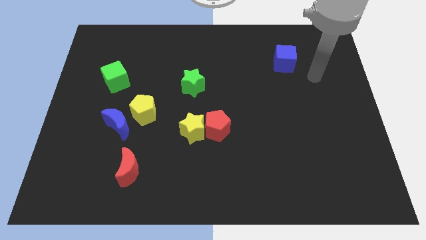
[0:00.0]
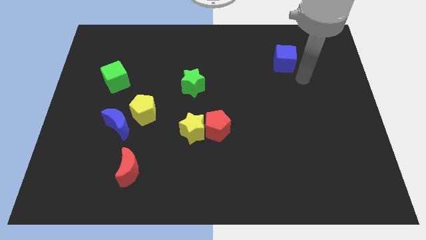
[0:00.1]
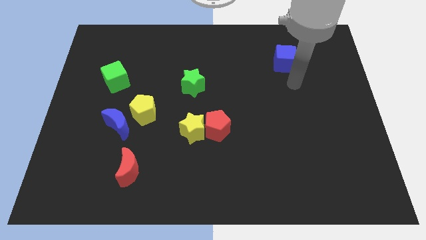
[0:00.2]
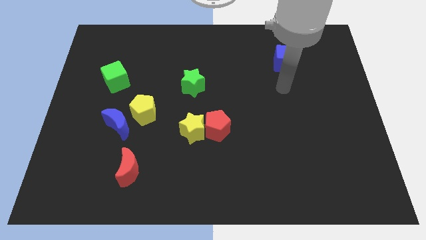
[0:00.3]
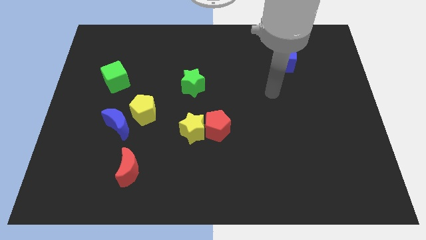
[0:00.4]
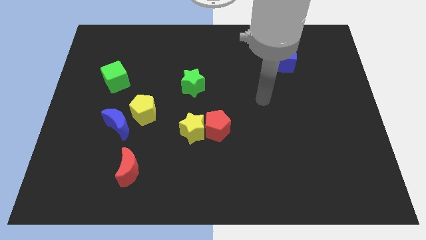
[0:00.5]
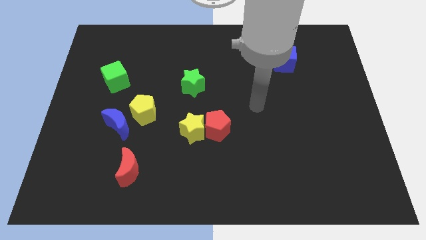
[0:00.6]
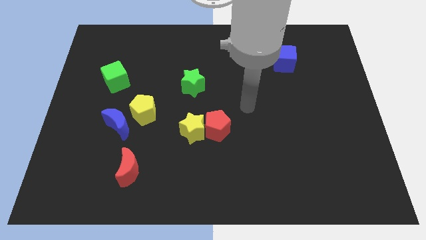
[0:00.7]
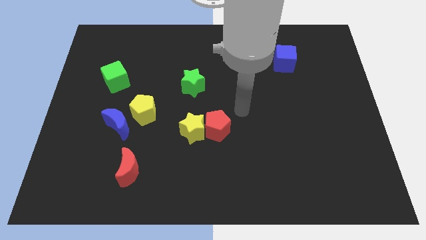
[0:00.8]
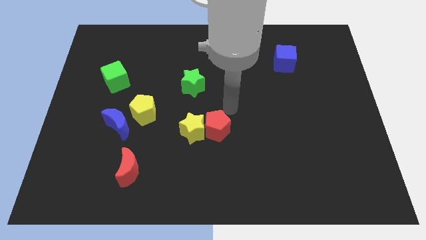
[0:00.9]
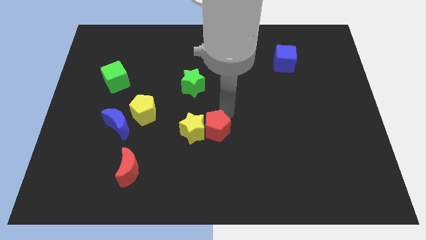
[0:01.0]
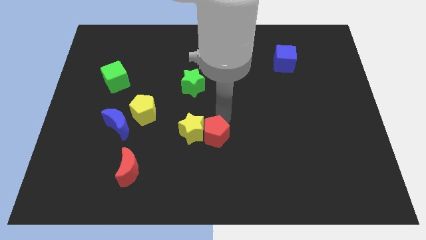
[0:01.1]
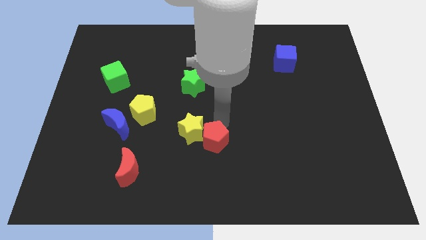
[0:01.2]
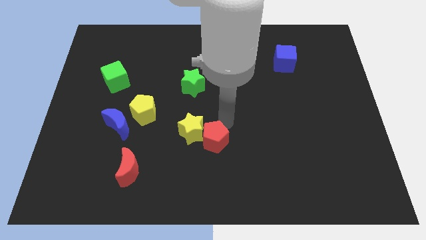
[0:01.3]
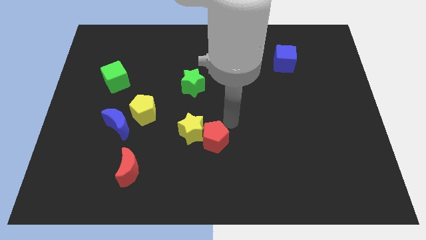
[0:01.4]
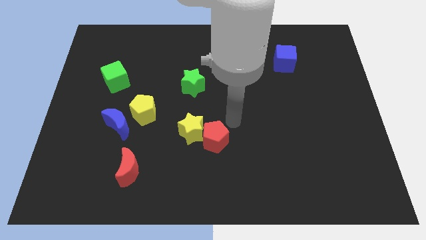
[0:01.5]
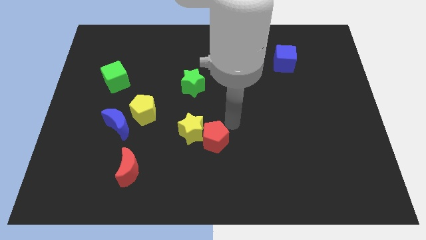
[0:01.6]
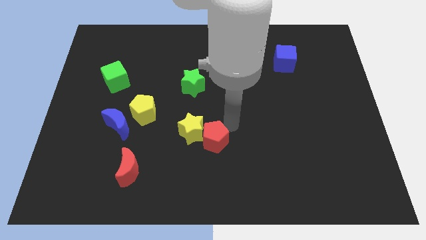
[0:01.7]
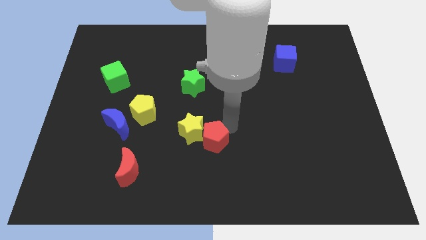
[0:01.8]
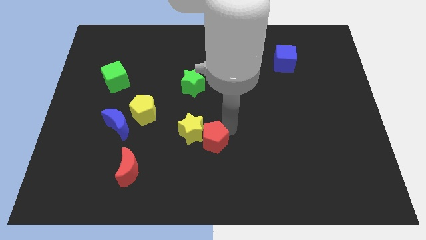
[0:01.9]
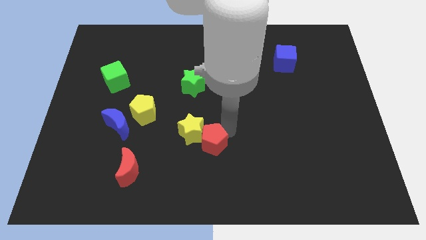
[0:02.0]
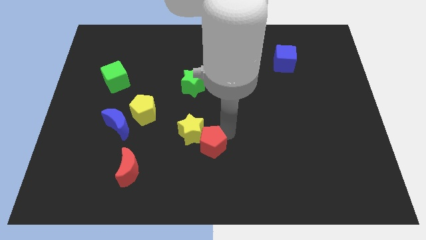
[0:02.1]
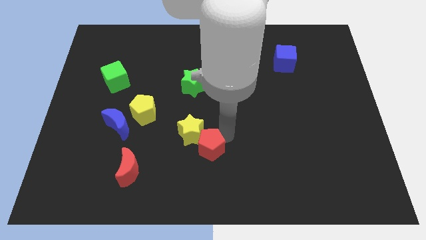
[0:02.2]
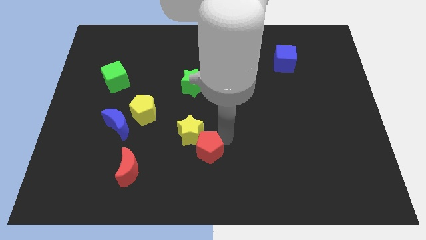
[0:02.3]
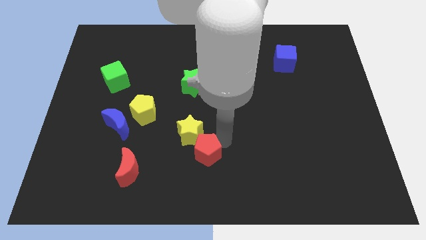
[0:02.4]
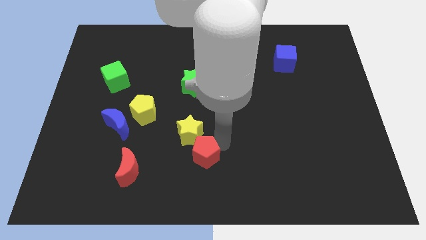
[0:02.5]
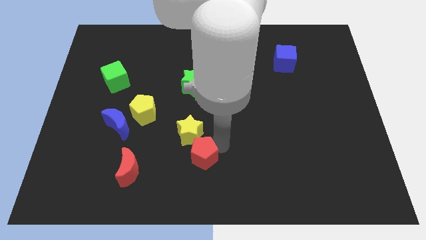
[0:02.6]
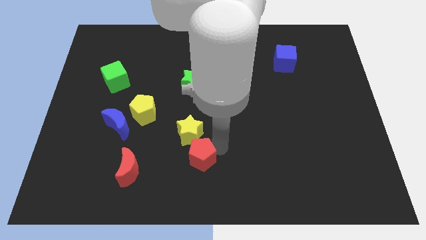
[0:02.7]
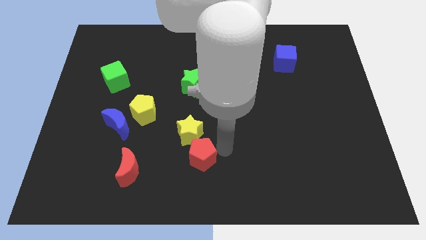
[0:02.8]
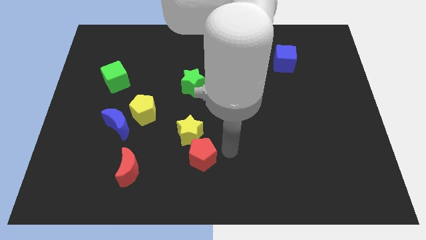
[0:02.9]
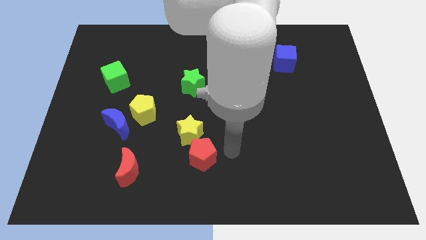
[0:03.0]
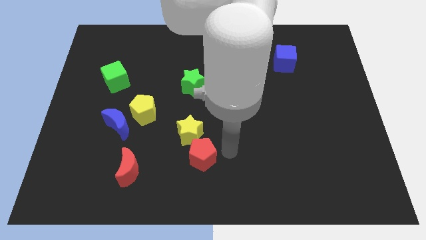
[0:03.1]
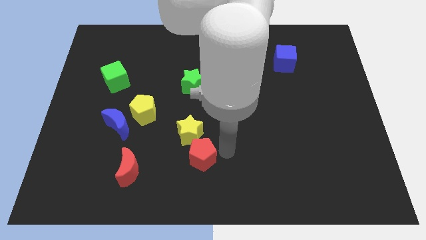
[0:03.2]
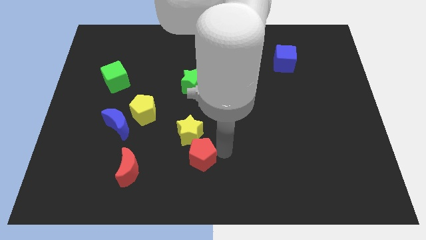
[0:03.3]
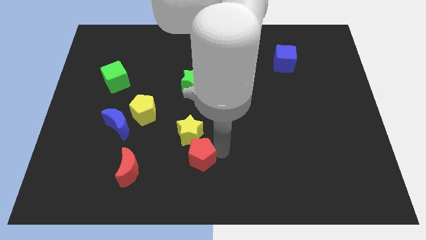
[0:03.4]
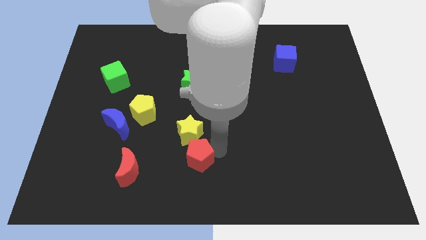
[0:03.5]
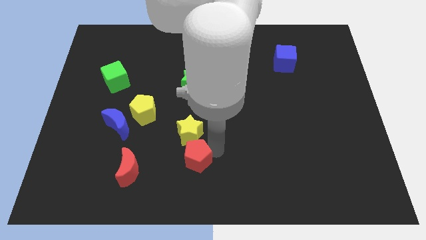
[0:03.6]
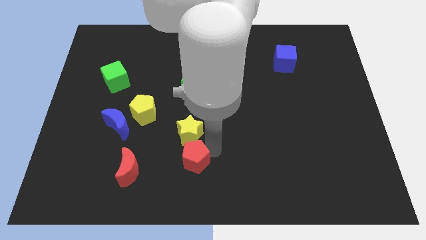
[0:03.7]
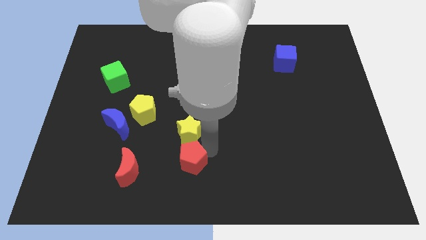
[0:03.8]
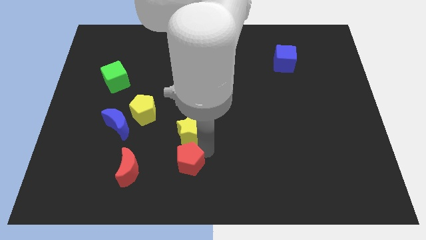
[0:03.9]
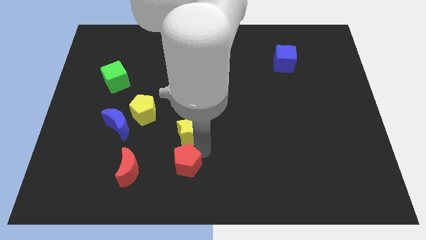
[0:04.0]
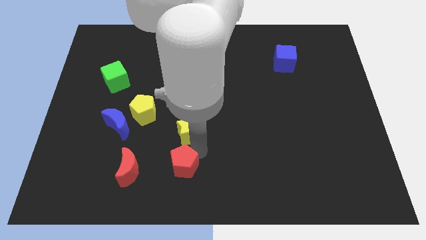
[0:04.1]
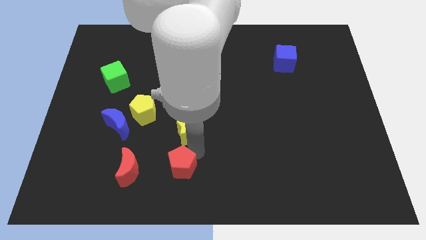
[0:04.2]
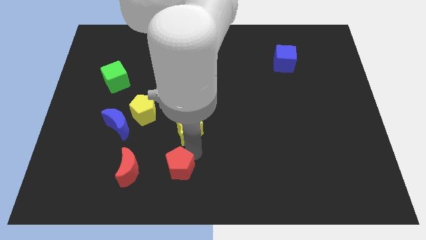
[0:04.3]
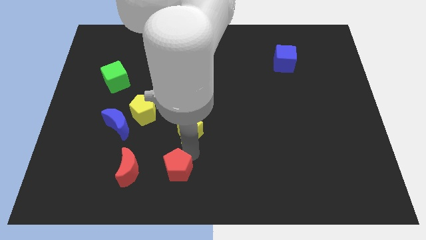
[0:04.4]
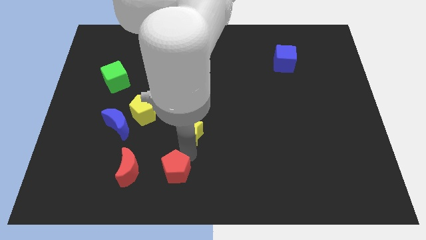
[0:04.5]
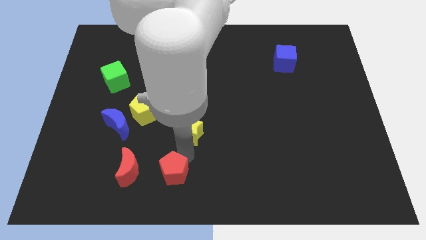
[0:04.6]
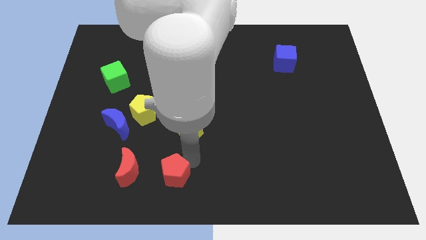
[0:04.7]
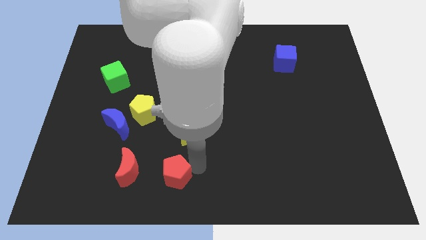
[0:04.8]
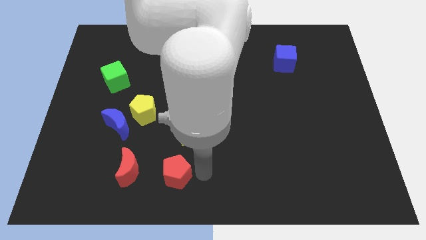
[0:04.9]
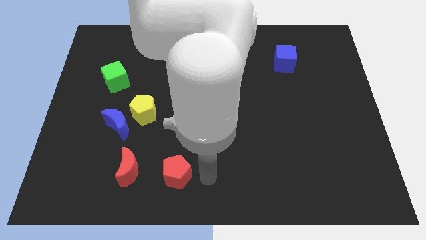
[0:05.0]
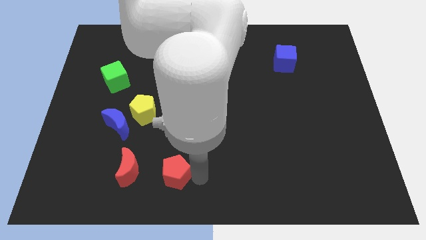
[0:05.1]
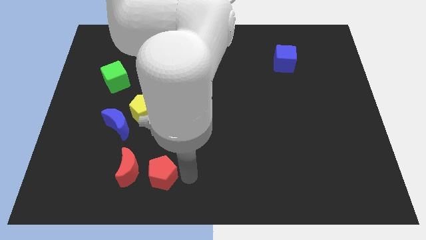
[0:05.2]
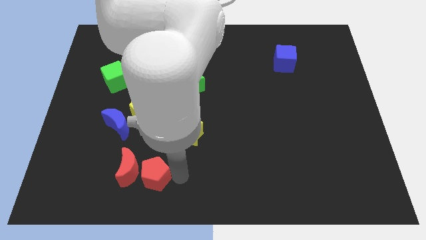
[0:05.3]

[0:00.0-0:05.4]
slide the red pentagon close to the red moon
